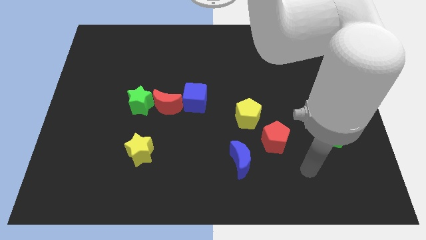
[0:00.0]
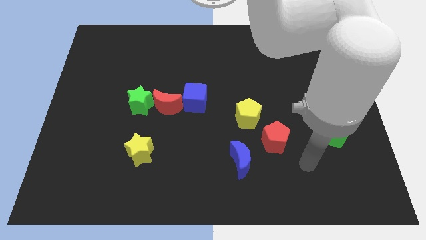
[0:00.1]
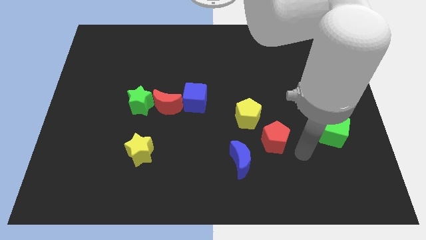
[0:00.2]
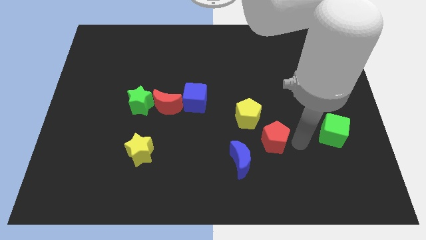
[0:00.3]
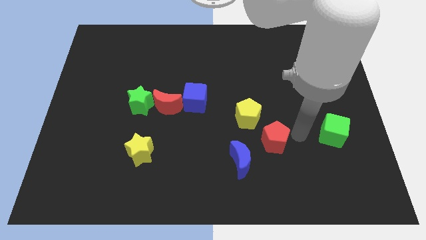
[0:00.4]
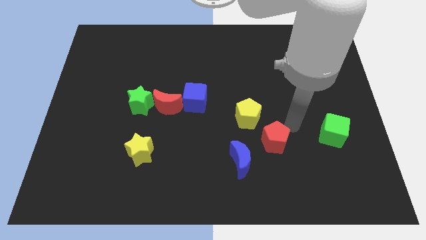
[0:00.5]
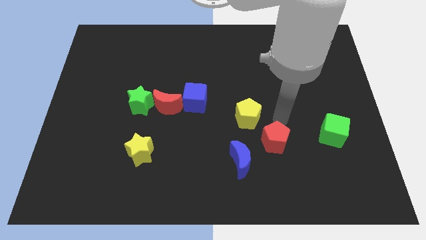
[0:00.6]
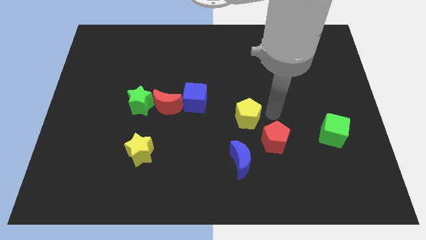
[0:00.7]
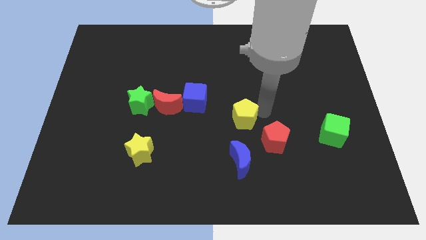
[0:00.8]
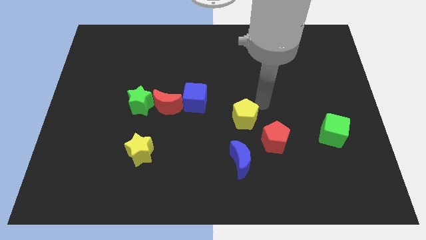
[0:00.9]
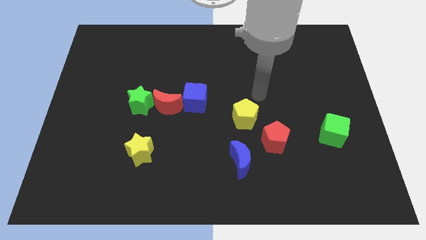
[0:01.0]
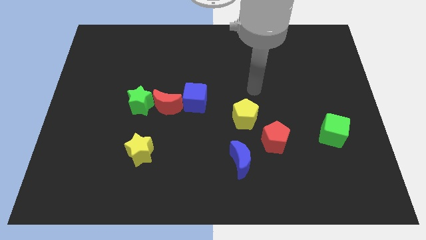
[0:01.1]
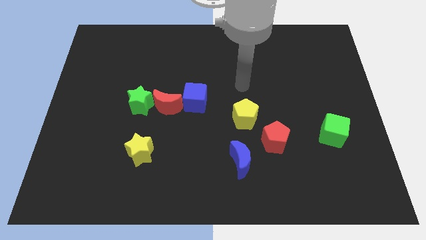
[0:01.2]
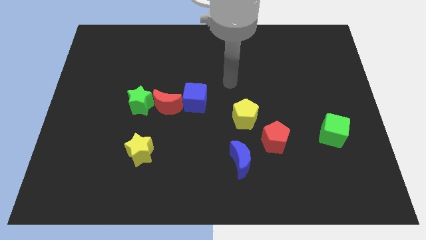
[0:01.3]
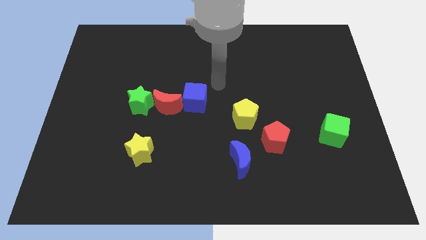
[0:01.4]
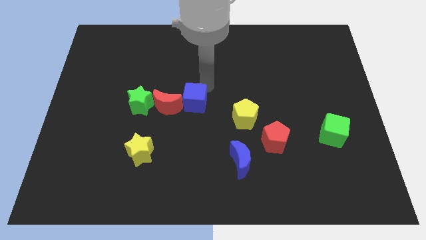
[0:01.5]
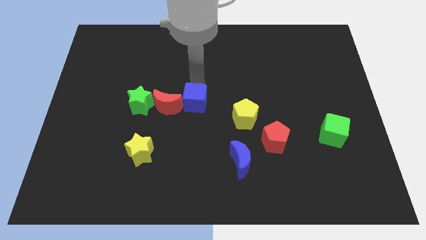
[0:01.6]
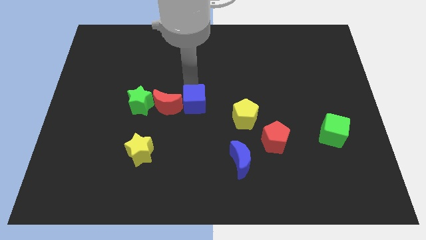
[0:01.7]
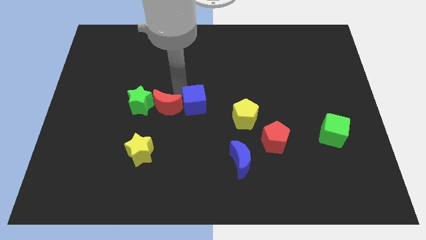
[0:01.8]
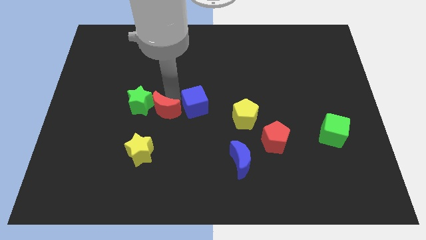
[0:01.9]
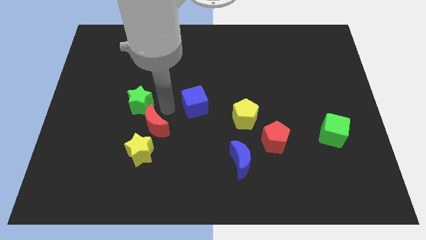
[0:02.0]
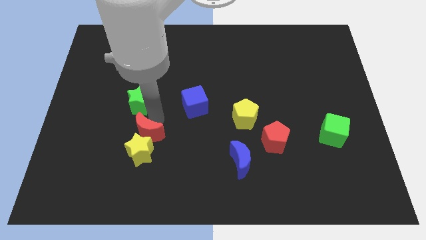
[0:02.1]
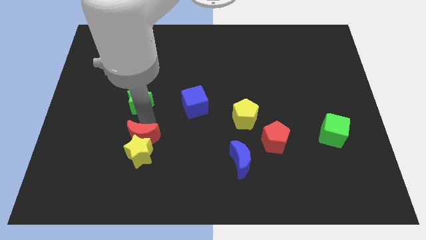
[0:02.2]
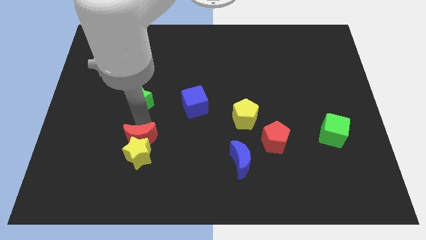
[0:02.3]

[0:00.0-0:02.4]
separate the green star from the red moon

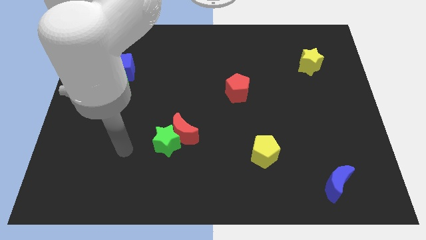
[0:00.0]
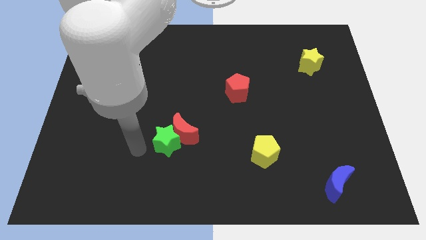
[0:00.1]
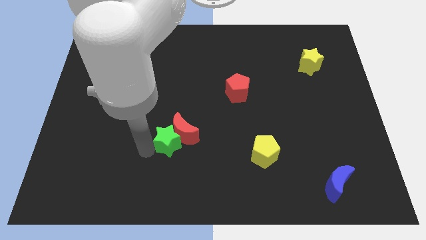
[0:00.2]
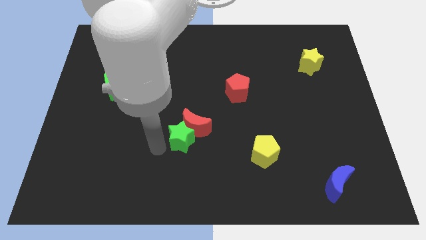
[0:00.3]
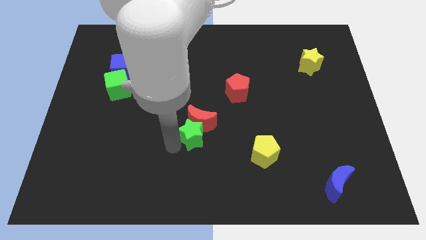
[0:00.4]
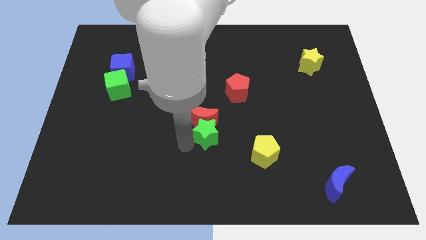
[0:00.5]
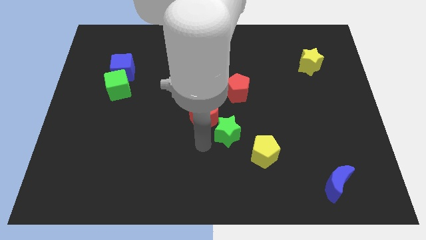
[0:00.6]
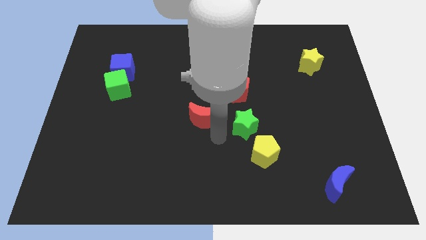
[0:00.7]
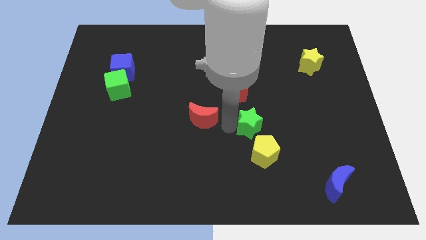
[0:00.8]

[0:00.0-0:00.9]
separate the red moon from the green star

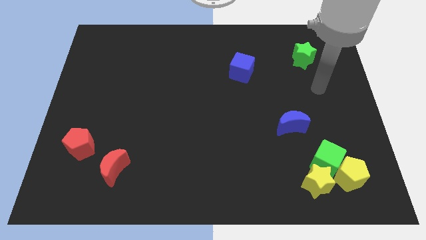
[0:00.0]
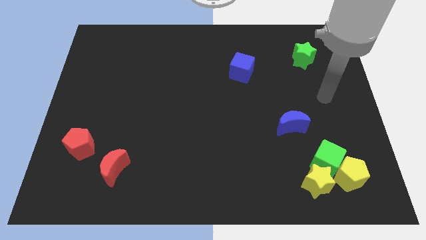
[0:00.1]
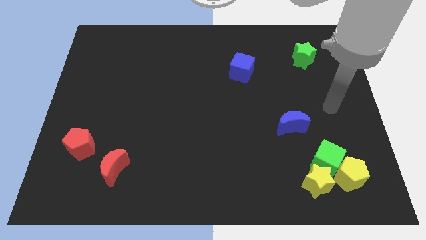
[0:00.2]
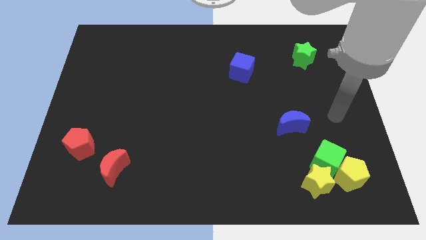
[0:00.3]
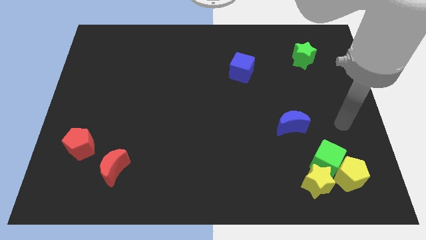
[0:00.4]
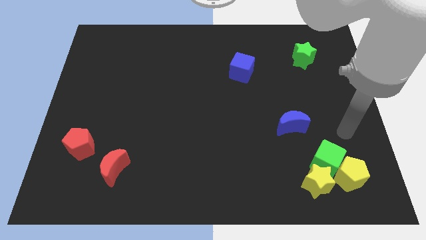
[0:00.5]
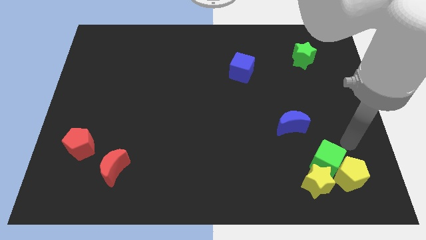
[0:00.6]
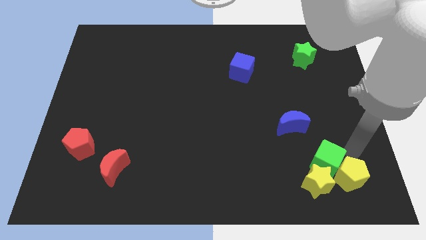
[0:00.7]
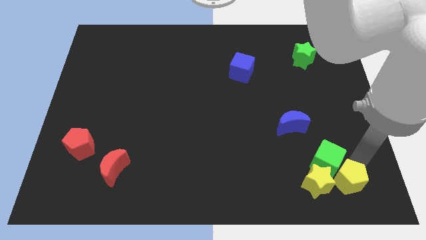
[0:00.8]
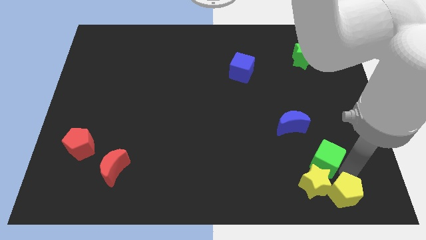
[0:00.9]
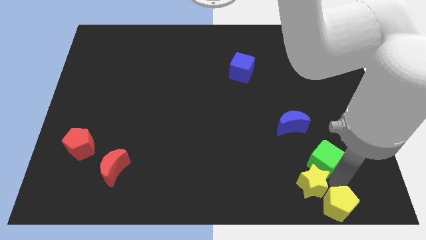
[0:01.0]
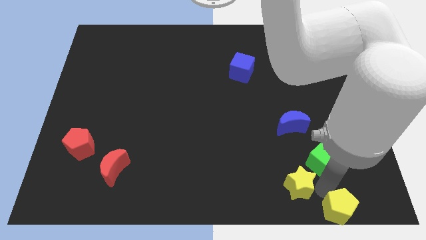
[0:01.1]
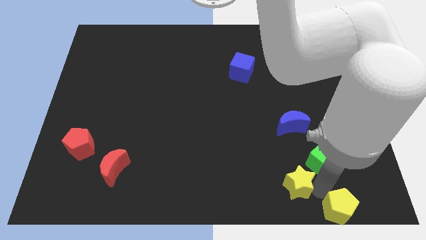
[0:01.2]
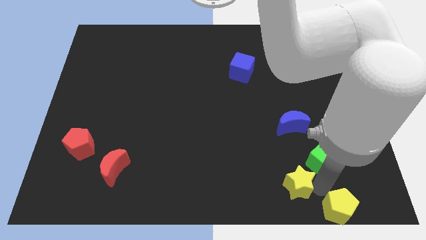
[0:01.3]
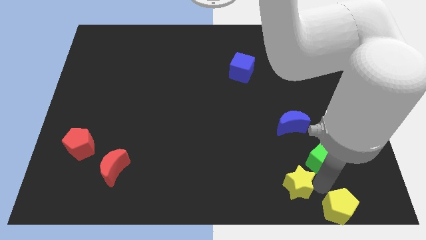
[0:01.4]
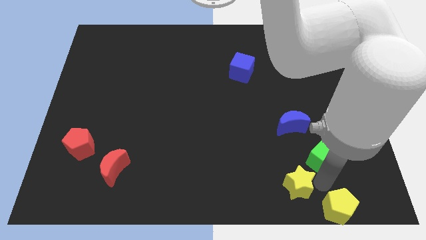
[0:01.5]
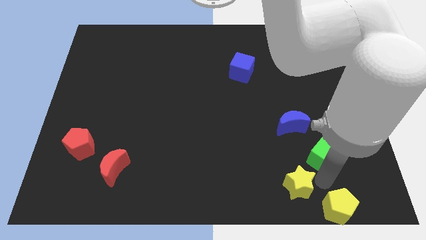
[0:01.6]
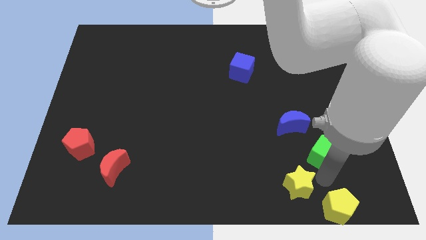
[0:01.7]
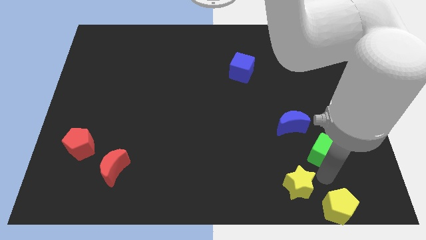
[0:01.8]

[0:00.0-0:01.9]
separate the green cube from the yellow pentagon and yellow star

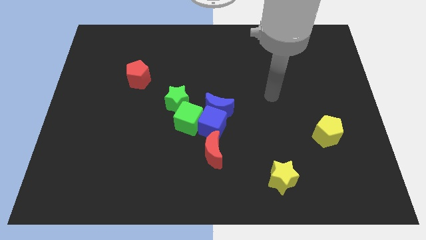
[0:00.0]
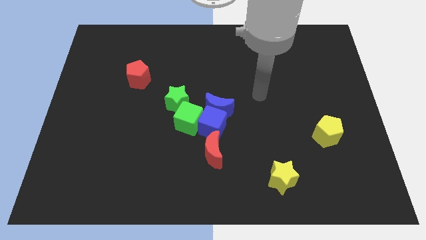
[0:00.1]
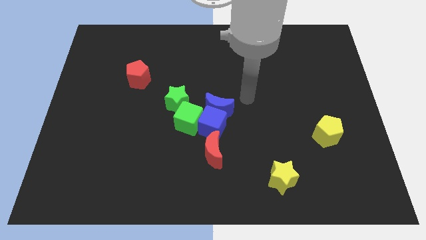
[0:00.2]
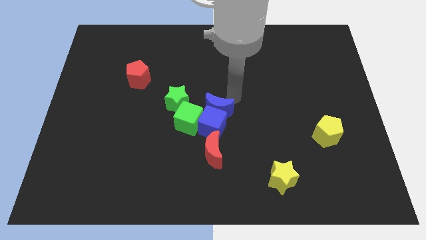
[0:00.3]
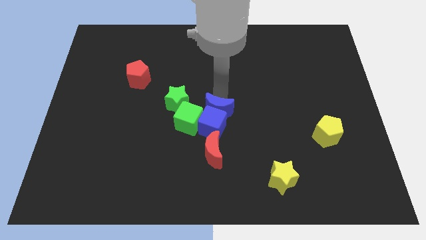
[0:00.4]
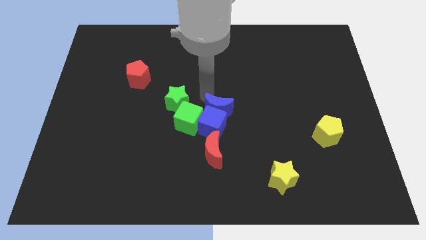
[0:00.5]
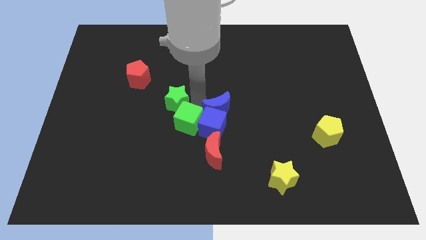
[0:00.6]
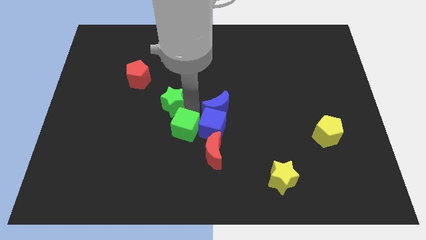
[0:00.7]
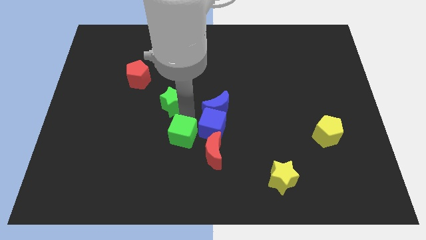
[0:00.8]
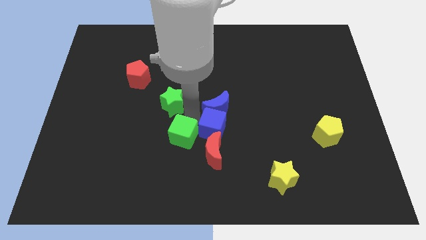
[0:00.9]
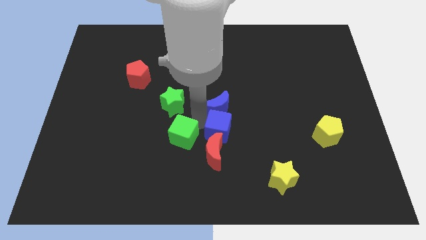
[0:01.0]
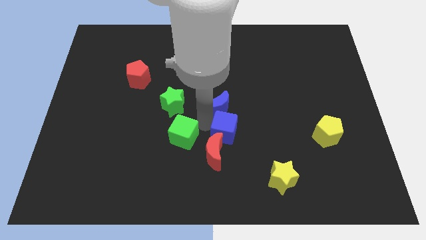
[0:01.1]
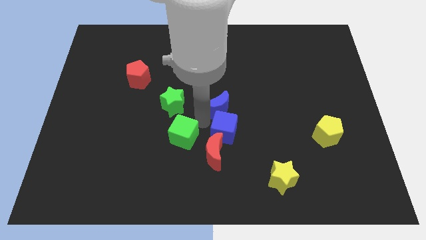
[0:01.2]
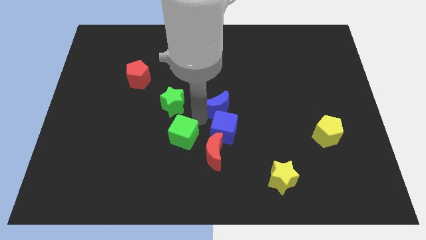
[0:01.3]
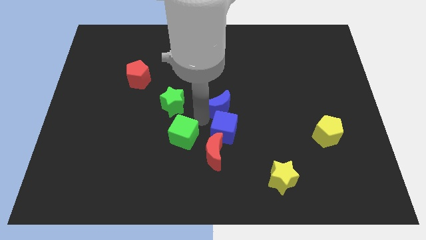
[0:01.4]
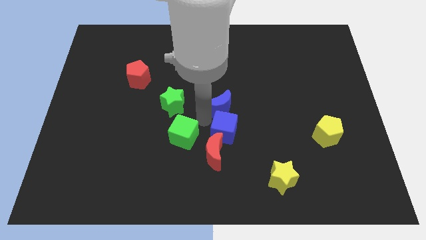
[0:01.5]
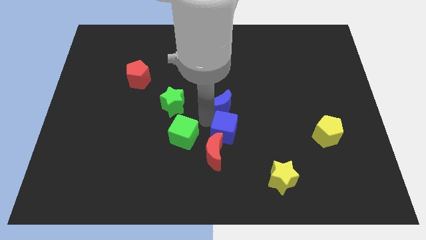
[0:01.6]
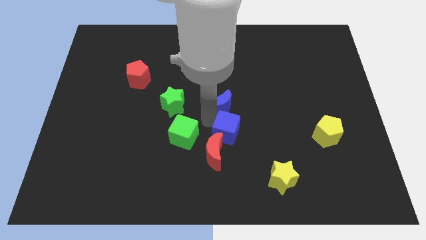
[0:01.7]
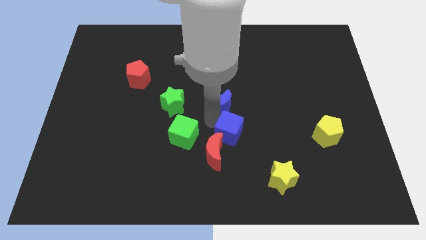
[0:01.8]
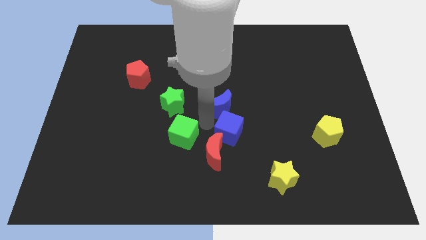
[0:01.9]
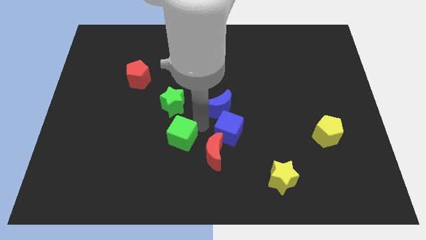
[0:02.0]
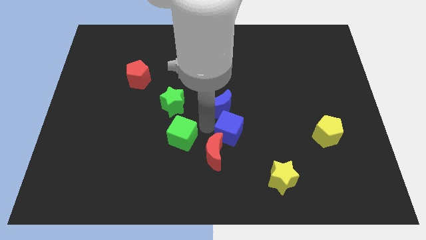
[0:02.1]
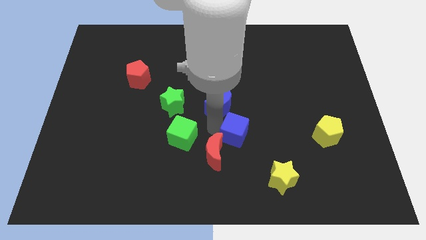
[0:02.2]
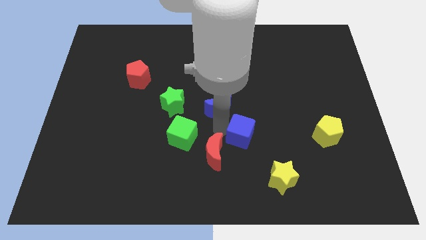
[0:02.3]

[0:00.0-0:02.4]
pull the blue cube apart from the group of blocks

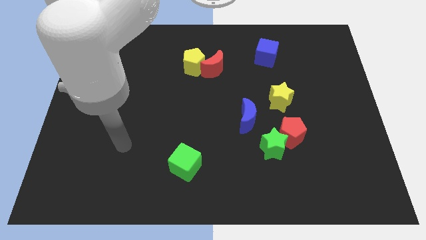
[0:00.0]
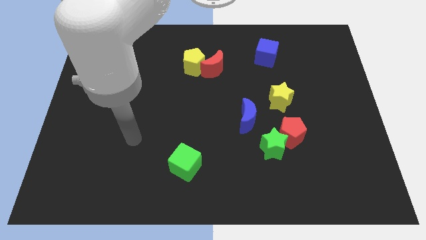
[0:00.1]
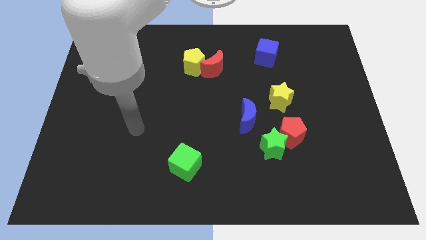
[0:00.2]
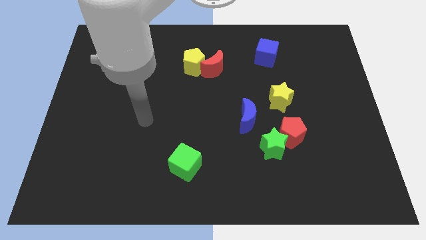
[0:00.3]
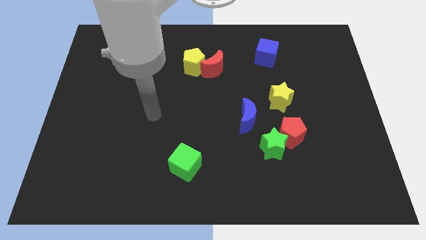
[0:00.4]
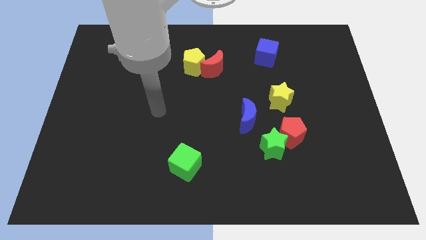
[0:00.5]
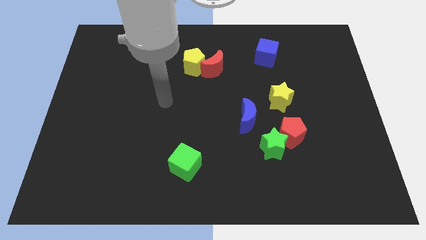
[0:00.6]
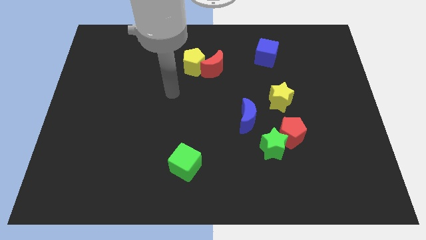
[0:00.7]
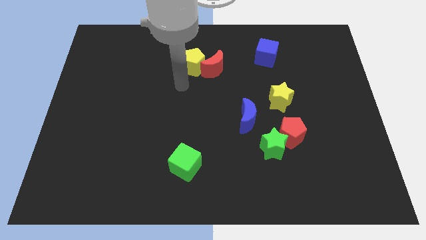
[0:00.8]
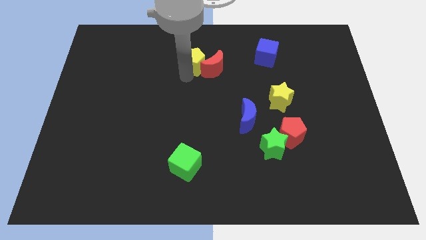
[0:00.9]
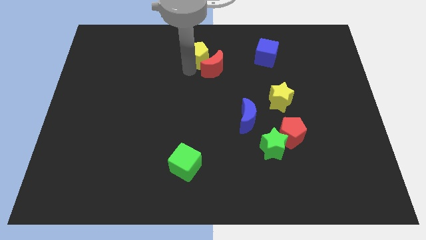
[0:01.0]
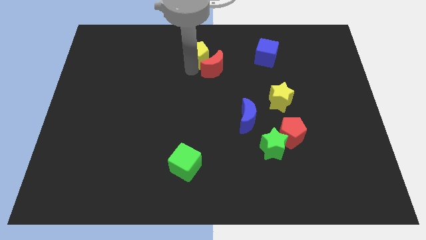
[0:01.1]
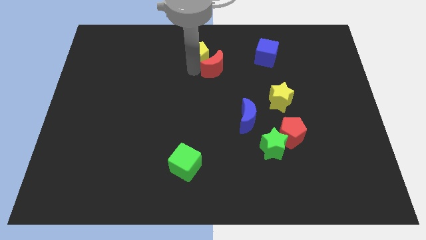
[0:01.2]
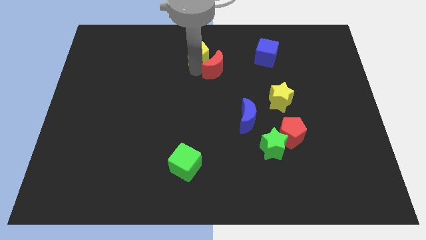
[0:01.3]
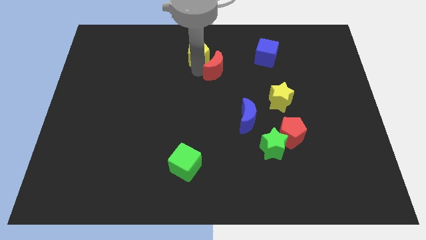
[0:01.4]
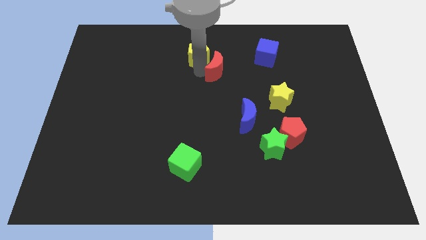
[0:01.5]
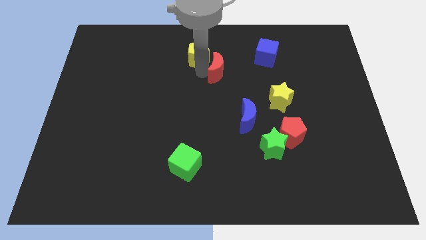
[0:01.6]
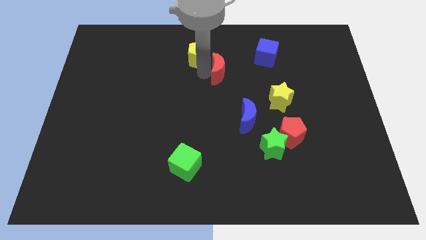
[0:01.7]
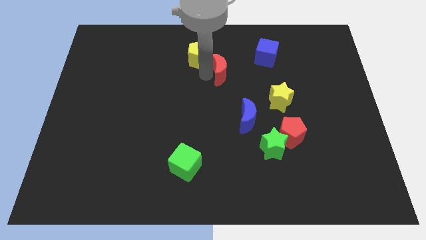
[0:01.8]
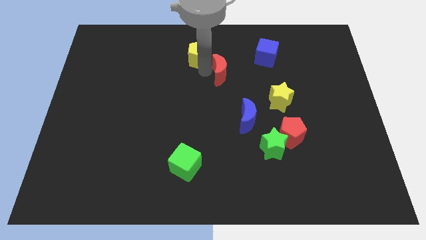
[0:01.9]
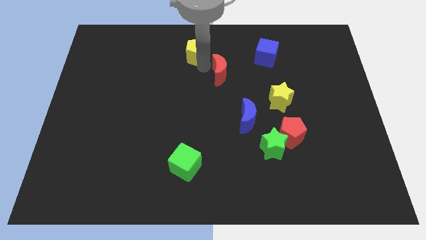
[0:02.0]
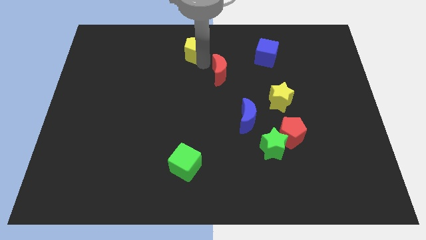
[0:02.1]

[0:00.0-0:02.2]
pull the red moon apart from the yellow pentagon
